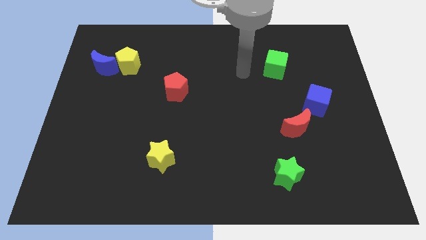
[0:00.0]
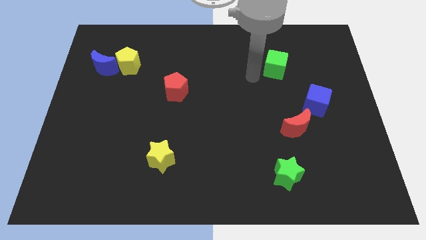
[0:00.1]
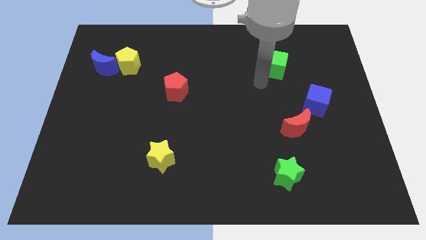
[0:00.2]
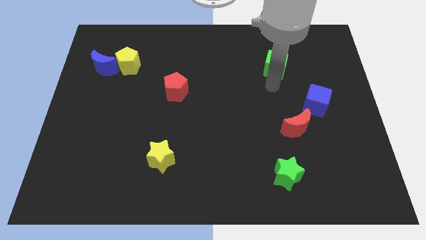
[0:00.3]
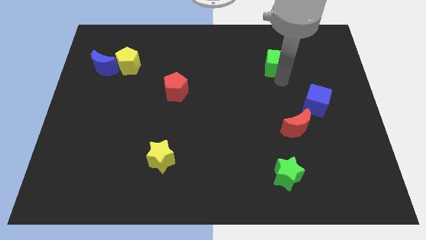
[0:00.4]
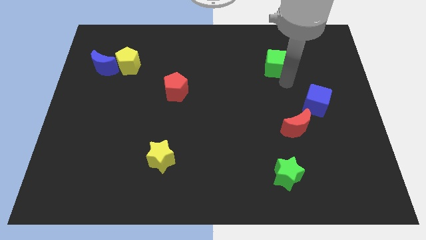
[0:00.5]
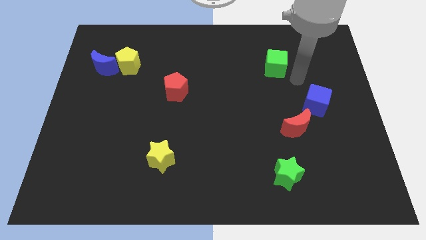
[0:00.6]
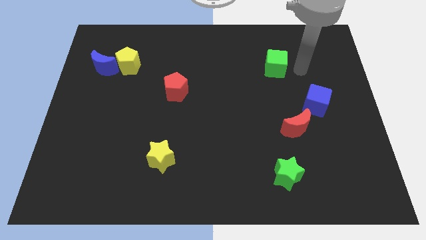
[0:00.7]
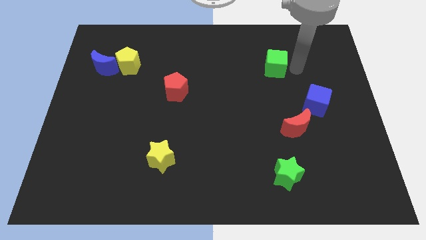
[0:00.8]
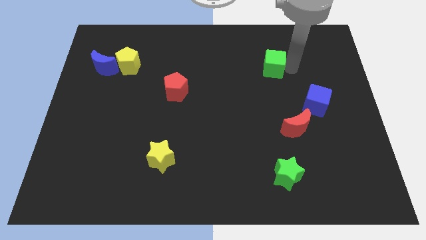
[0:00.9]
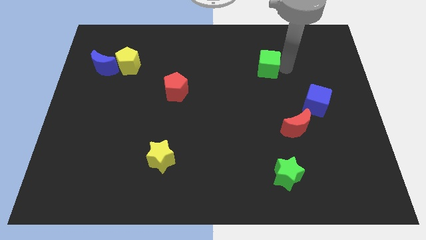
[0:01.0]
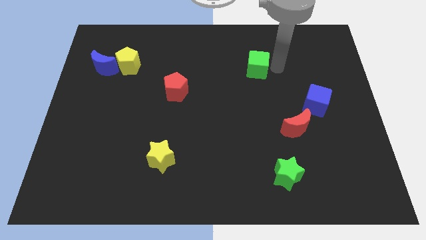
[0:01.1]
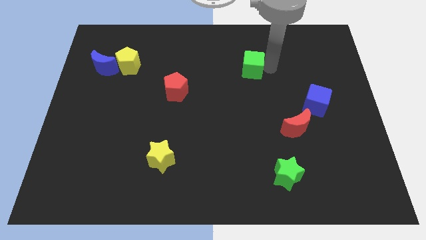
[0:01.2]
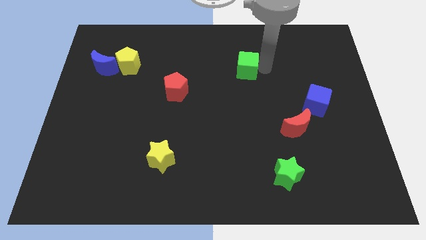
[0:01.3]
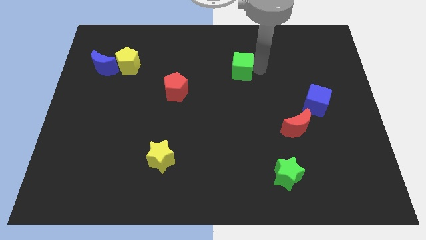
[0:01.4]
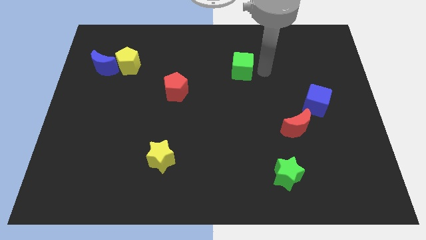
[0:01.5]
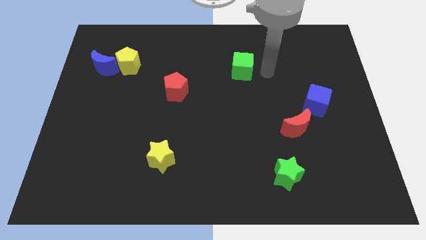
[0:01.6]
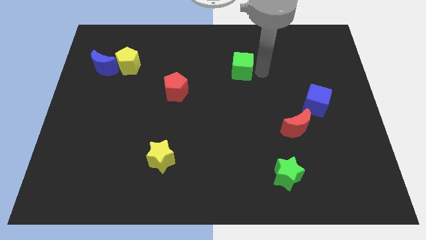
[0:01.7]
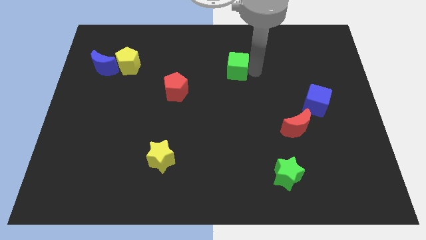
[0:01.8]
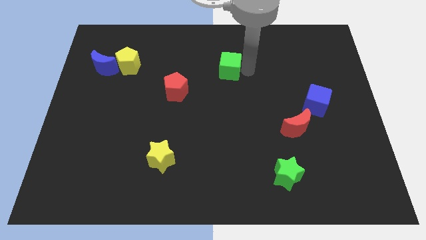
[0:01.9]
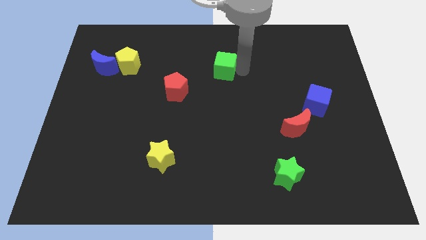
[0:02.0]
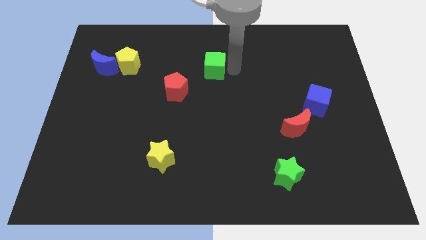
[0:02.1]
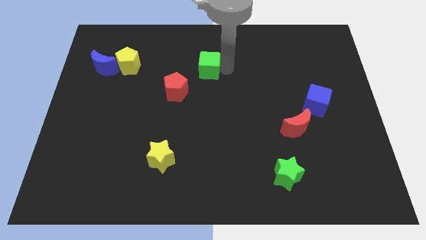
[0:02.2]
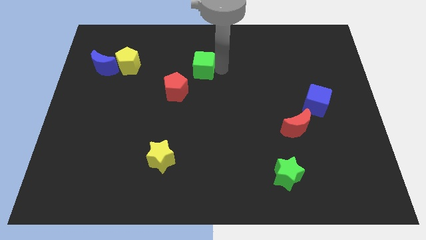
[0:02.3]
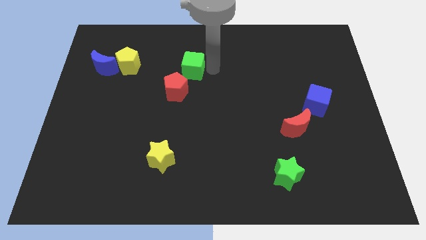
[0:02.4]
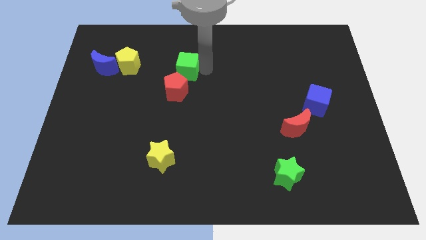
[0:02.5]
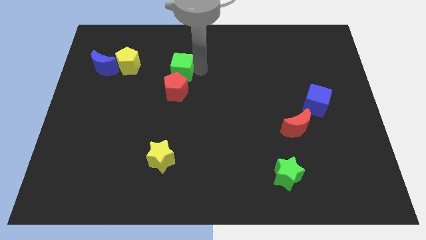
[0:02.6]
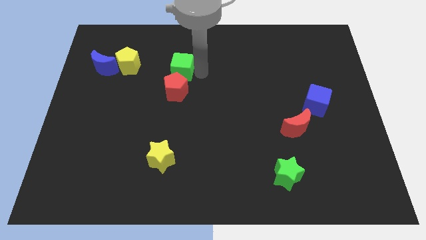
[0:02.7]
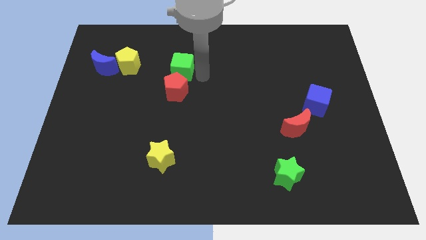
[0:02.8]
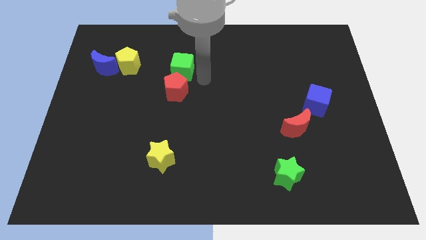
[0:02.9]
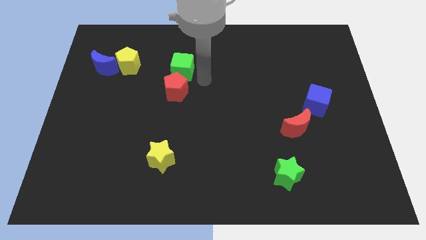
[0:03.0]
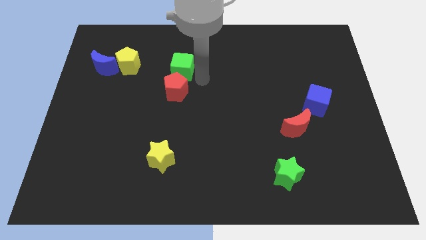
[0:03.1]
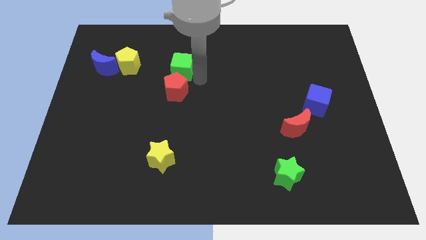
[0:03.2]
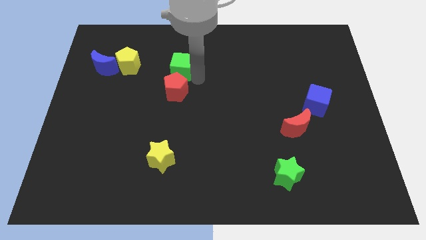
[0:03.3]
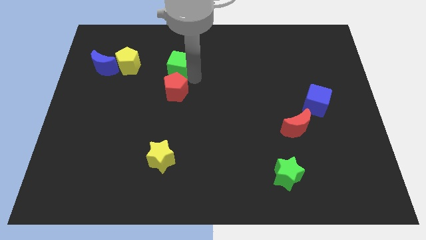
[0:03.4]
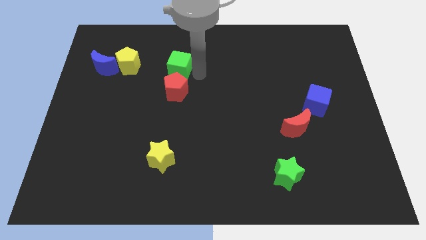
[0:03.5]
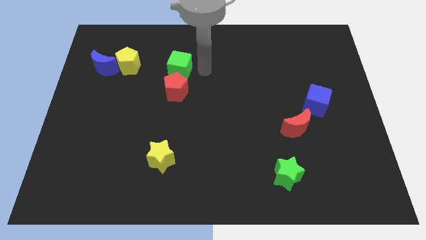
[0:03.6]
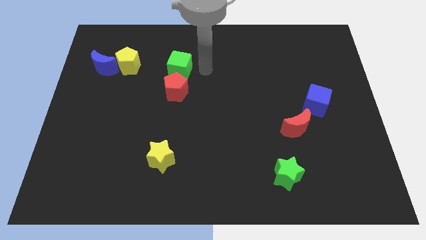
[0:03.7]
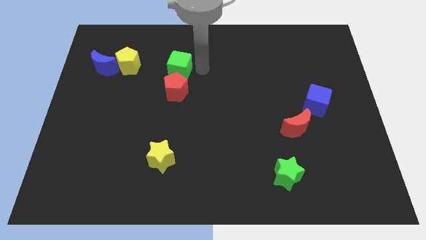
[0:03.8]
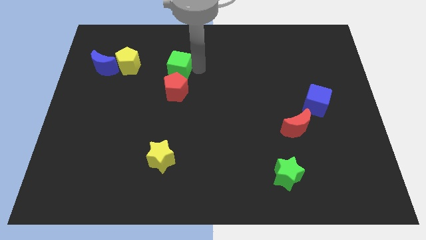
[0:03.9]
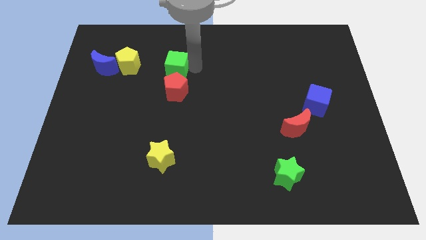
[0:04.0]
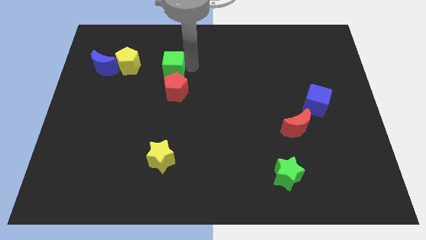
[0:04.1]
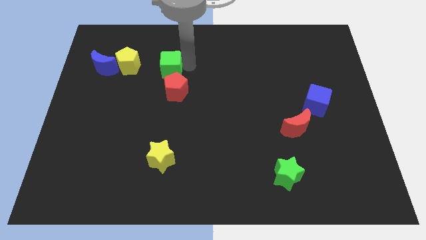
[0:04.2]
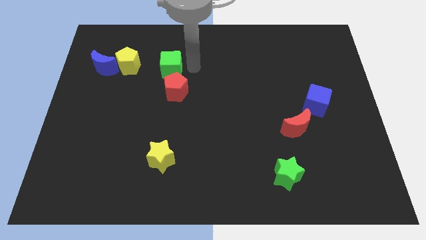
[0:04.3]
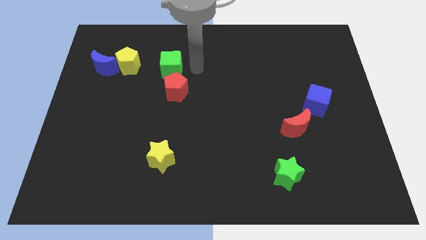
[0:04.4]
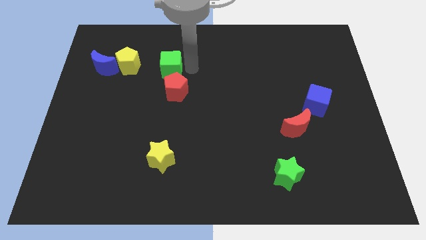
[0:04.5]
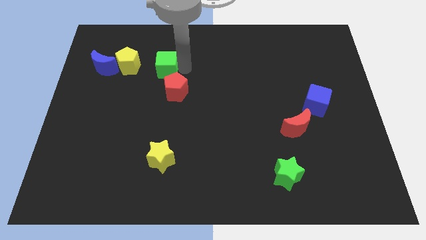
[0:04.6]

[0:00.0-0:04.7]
move the green cube to the right of the blue moon

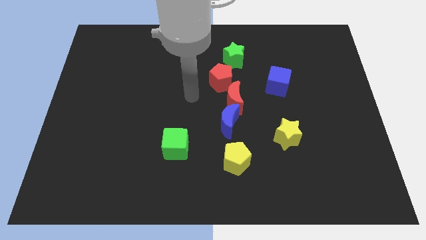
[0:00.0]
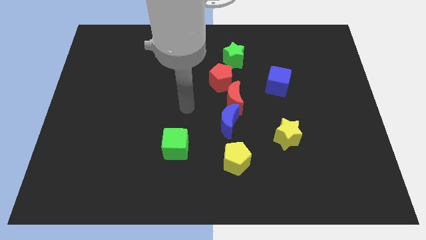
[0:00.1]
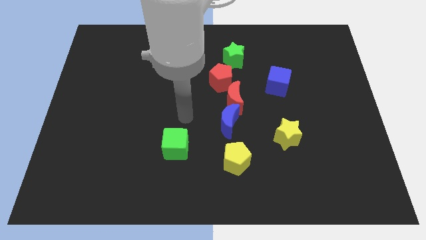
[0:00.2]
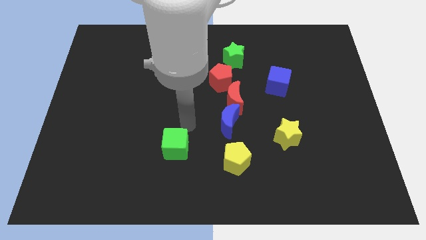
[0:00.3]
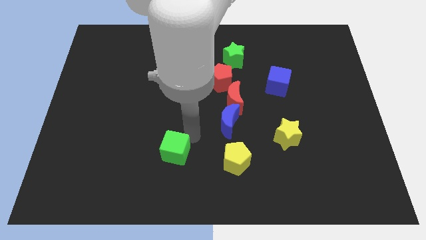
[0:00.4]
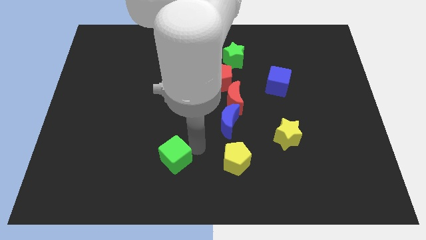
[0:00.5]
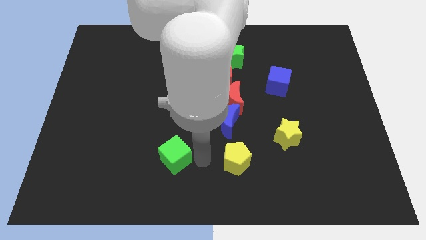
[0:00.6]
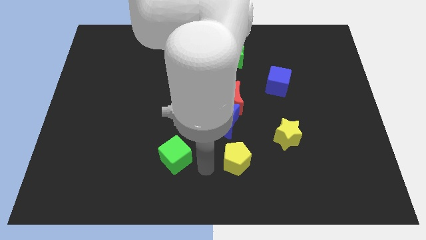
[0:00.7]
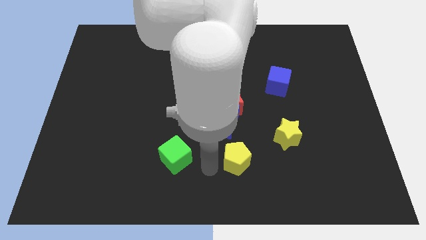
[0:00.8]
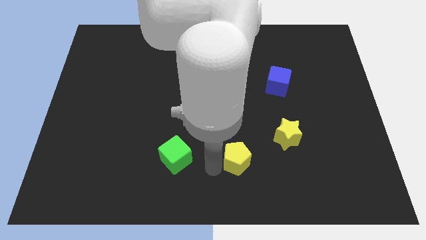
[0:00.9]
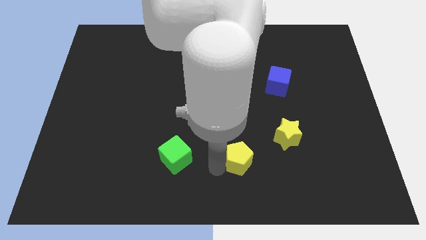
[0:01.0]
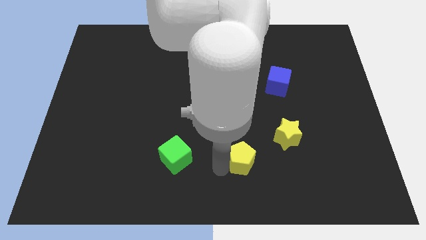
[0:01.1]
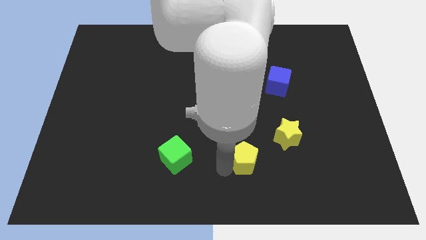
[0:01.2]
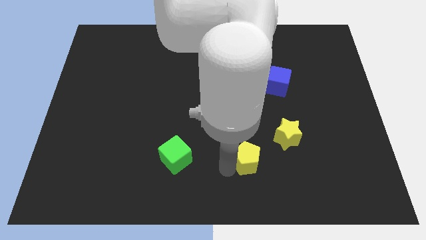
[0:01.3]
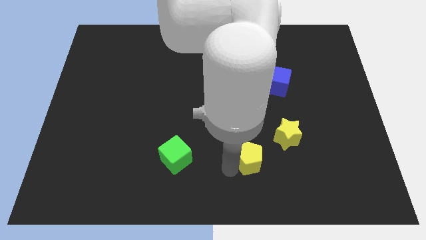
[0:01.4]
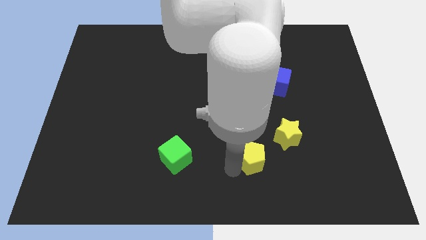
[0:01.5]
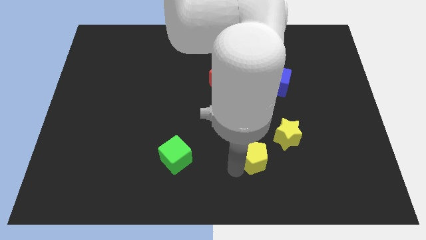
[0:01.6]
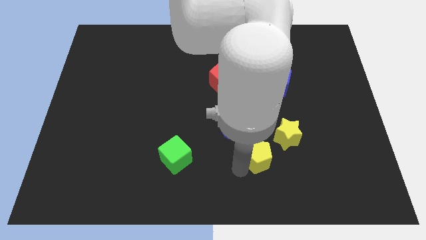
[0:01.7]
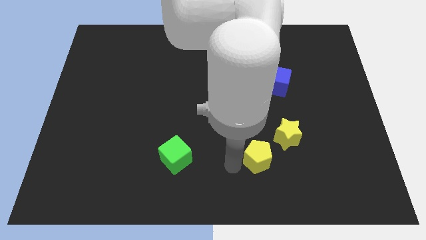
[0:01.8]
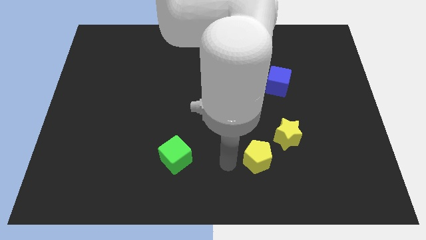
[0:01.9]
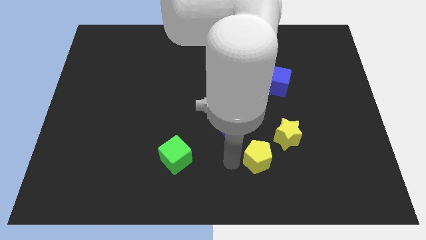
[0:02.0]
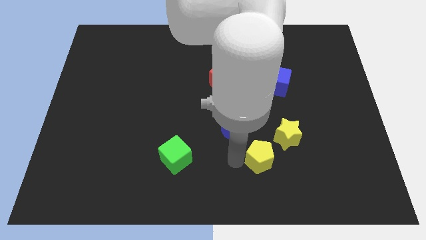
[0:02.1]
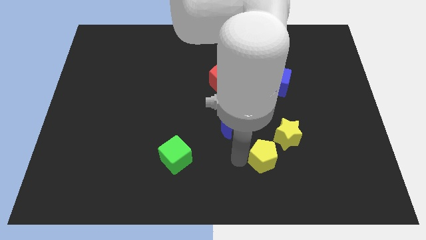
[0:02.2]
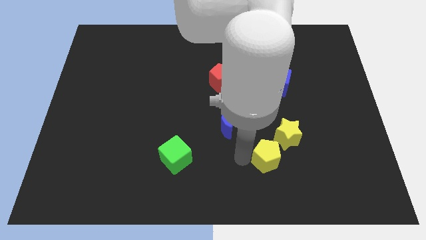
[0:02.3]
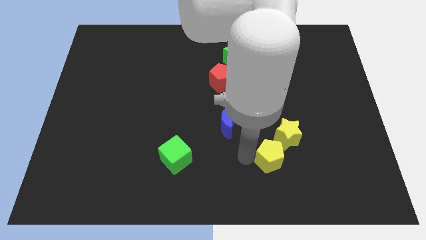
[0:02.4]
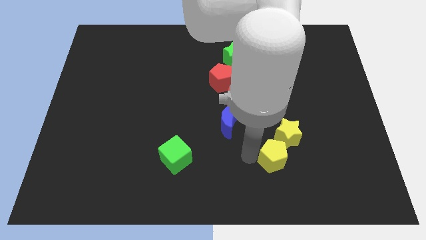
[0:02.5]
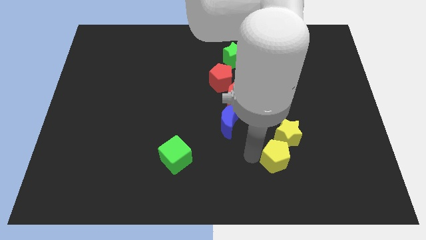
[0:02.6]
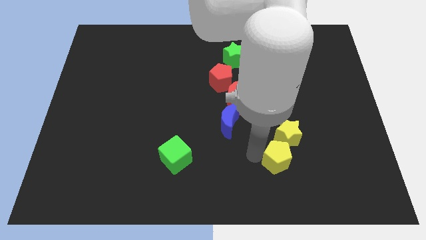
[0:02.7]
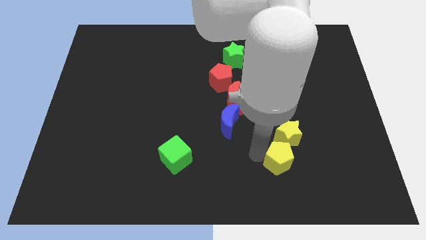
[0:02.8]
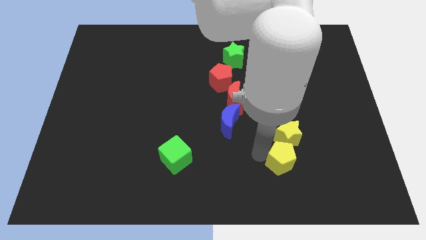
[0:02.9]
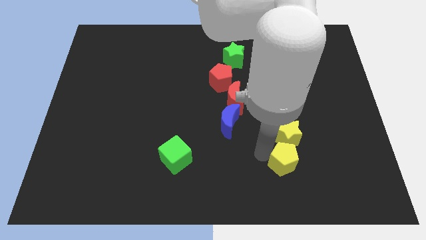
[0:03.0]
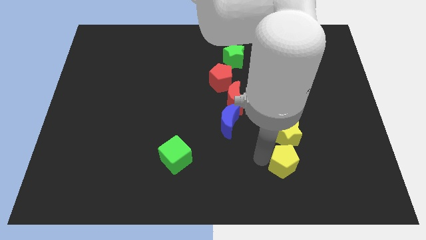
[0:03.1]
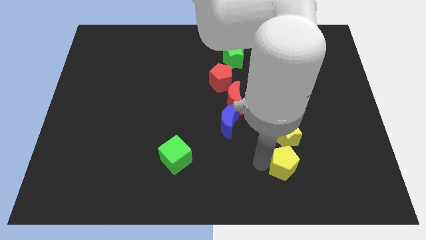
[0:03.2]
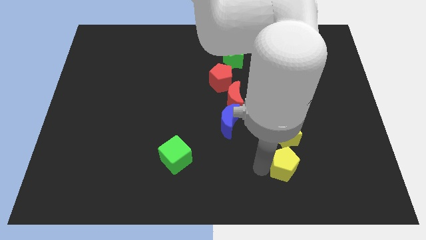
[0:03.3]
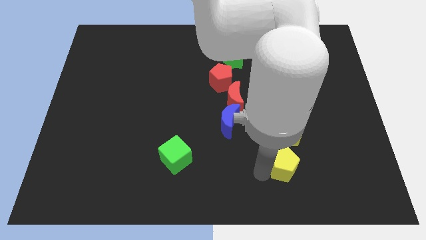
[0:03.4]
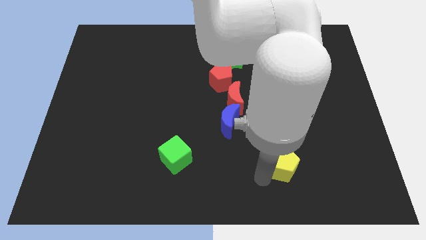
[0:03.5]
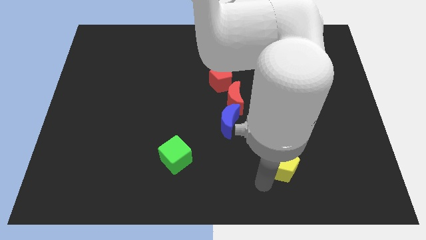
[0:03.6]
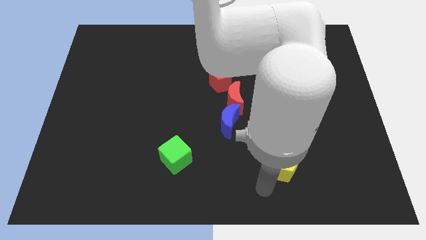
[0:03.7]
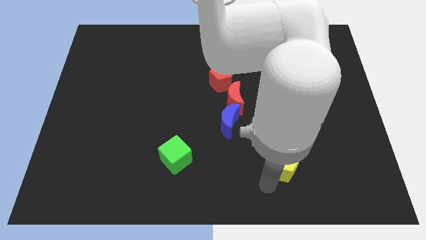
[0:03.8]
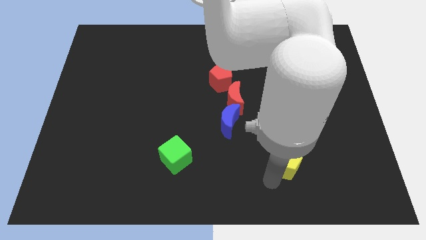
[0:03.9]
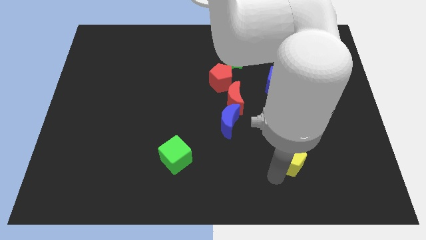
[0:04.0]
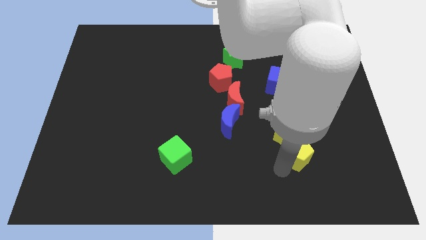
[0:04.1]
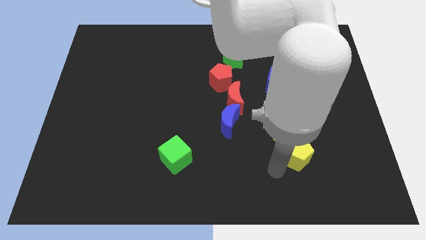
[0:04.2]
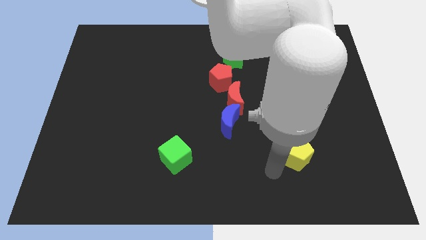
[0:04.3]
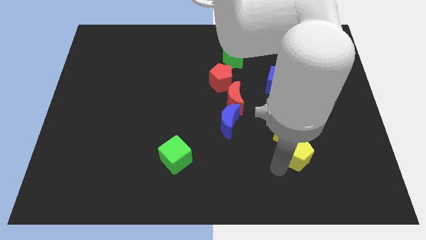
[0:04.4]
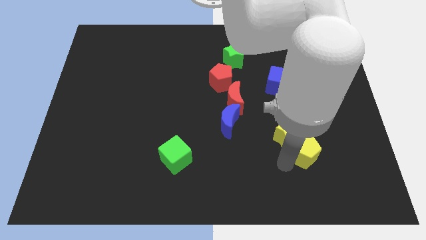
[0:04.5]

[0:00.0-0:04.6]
push the yellow pentagon right of the yellow star
